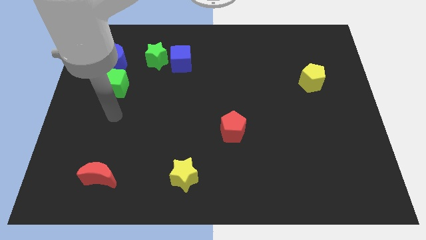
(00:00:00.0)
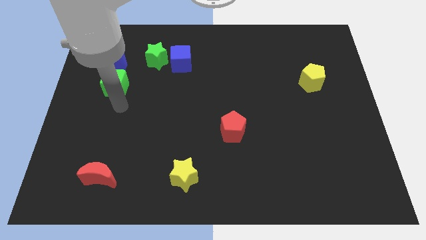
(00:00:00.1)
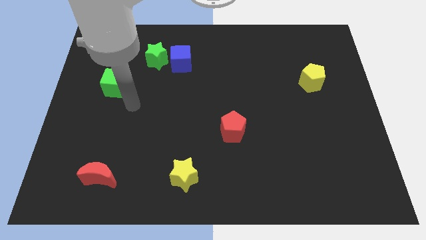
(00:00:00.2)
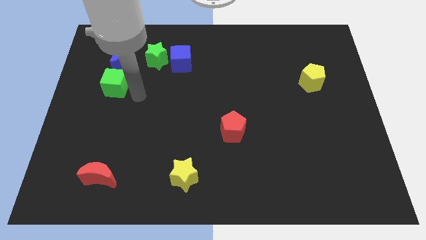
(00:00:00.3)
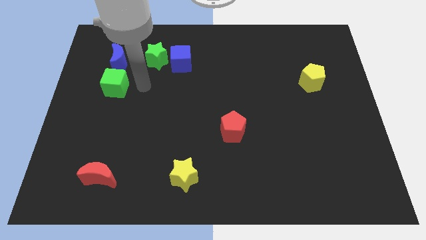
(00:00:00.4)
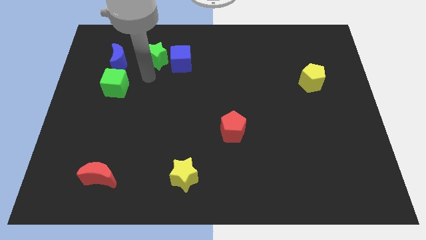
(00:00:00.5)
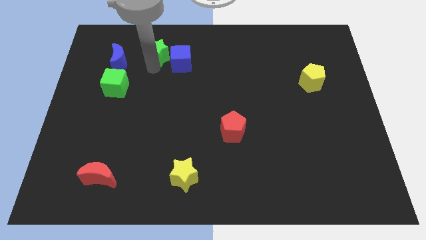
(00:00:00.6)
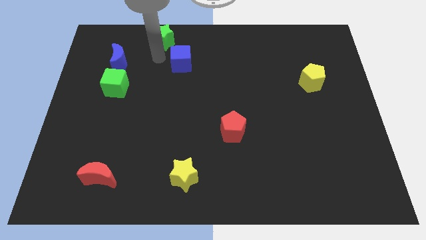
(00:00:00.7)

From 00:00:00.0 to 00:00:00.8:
move the blue cube away from the green star

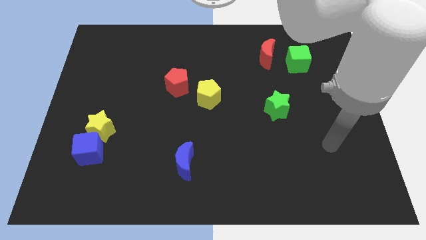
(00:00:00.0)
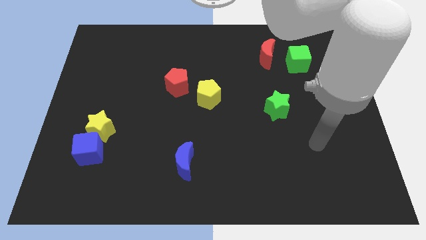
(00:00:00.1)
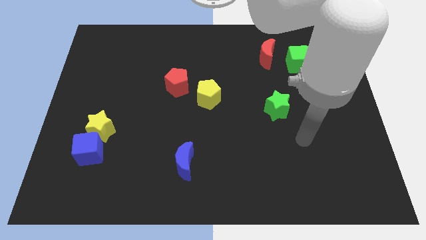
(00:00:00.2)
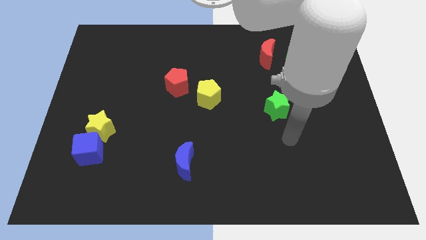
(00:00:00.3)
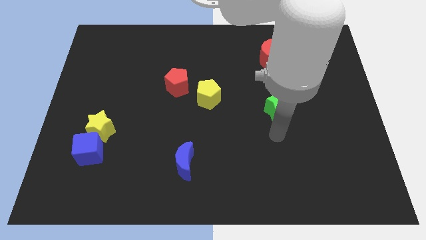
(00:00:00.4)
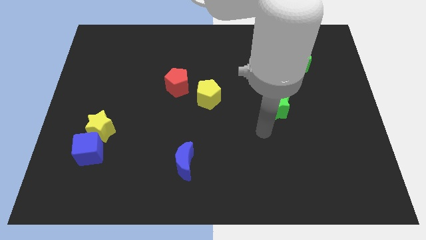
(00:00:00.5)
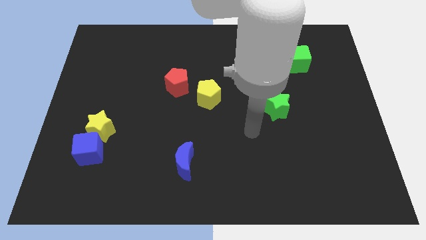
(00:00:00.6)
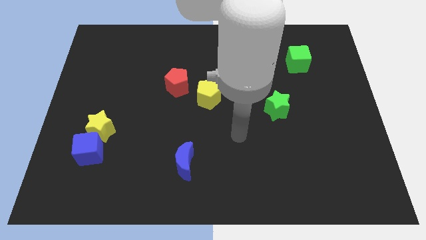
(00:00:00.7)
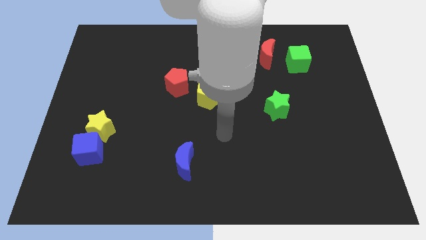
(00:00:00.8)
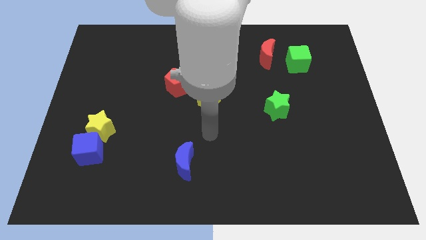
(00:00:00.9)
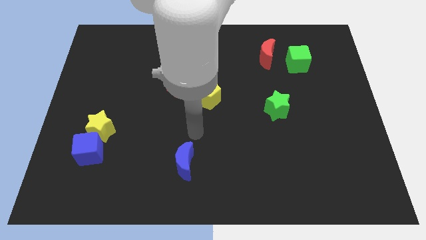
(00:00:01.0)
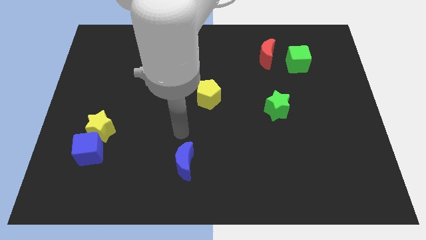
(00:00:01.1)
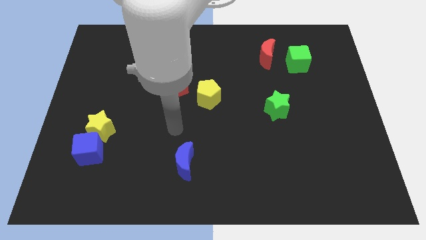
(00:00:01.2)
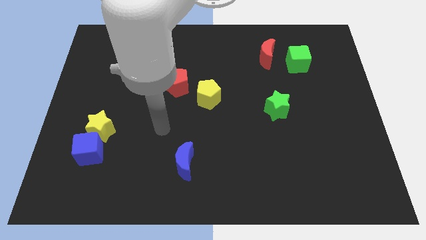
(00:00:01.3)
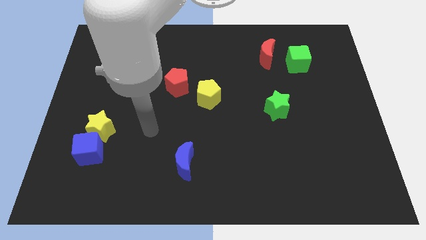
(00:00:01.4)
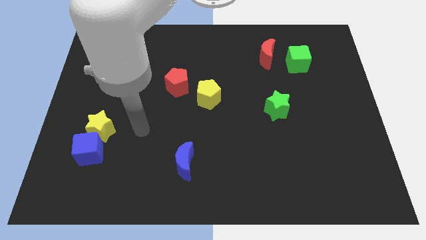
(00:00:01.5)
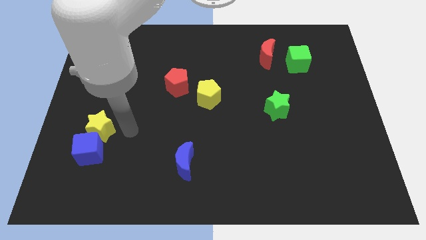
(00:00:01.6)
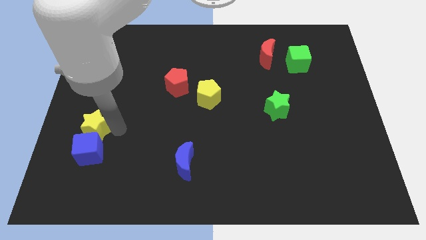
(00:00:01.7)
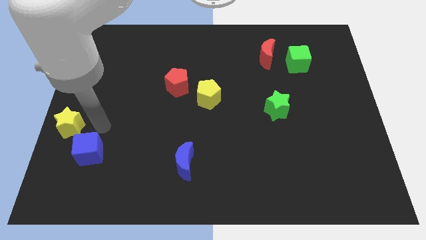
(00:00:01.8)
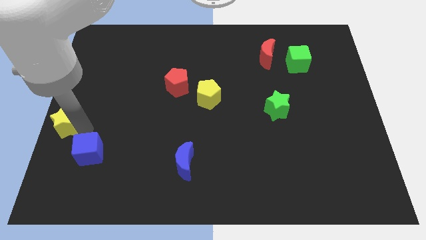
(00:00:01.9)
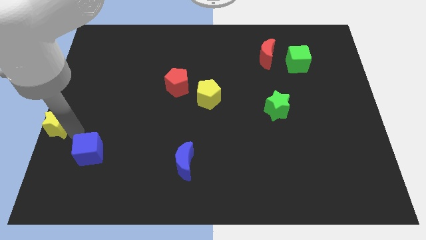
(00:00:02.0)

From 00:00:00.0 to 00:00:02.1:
separate the blue cube from the yellow star

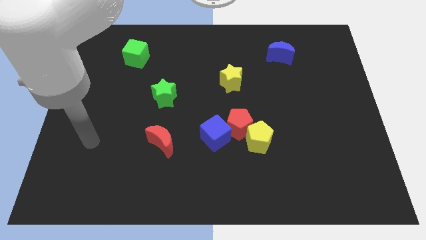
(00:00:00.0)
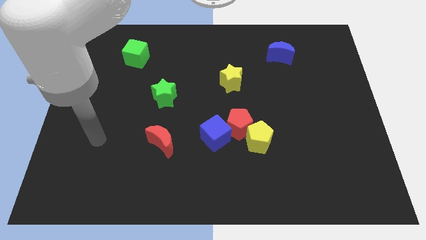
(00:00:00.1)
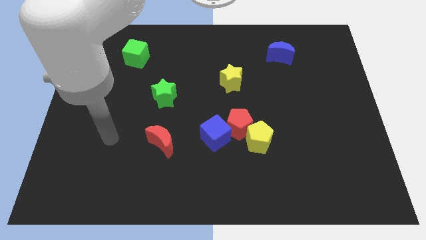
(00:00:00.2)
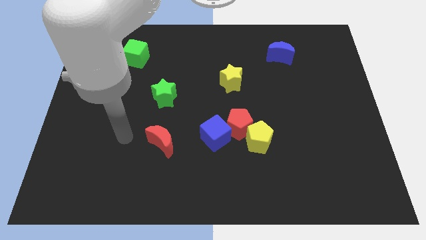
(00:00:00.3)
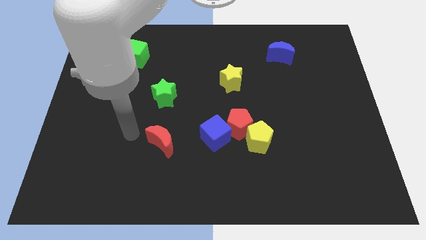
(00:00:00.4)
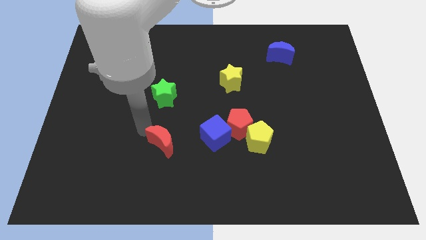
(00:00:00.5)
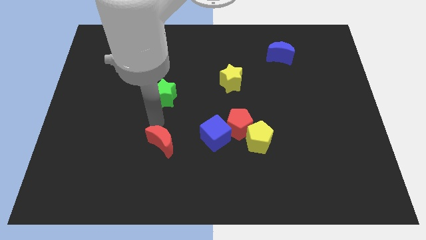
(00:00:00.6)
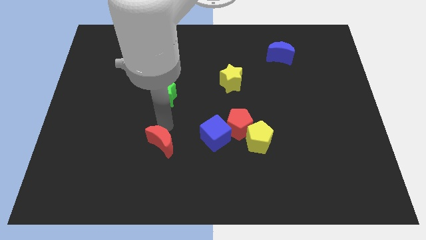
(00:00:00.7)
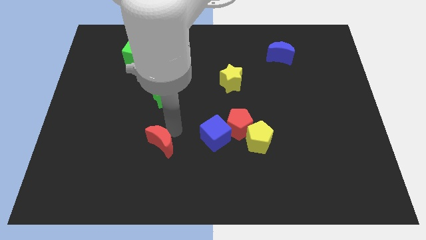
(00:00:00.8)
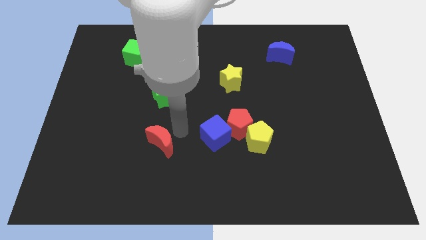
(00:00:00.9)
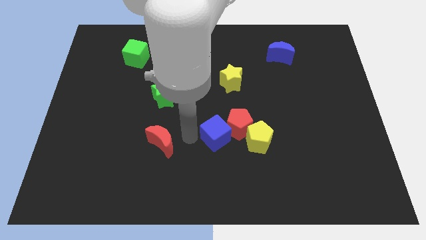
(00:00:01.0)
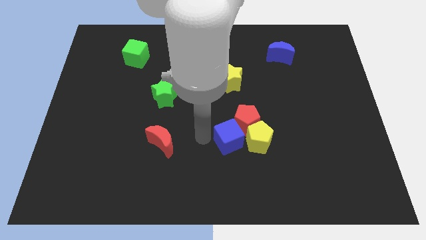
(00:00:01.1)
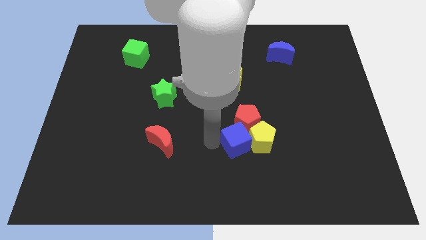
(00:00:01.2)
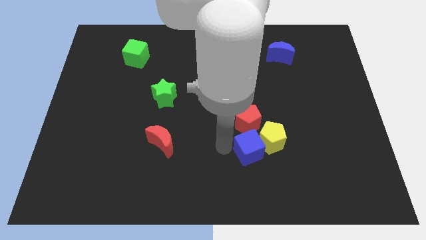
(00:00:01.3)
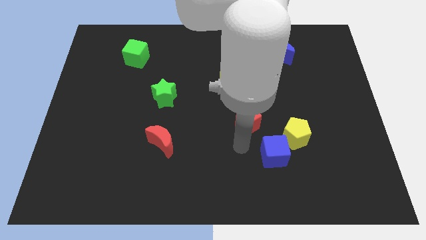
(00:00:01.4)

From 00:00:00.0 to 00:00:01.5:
pull the red pentagon apart from the yellow pentagon and blue cube

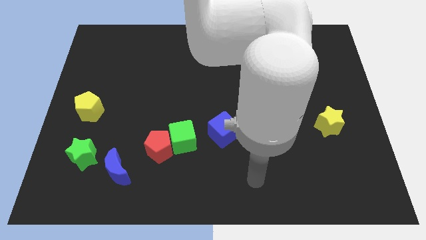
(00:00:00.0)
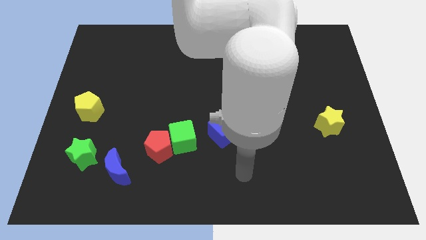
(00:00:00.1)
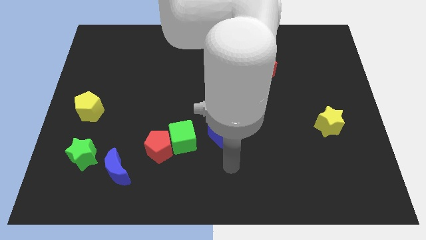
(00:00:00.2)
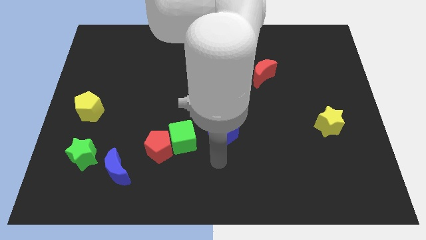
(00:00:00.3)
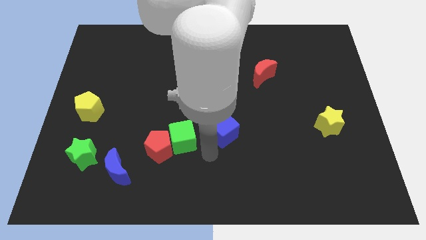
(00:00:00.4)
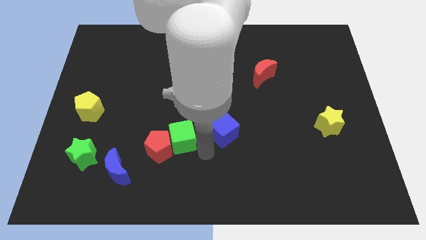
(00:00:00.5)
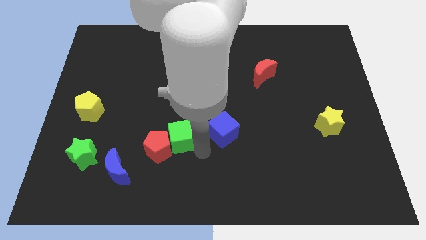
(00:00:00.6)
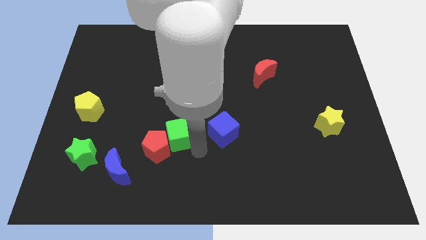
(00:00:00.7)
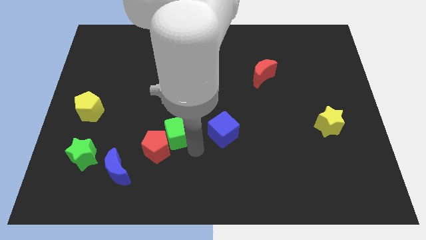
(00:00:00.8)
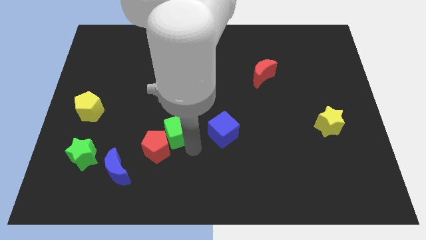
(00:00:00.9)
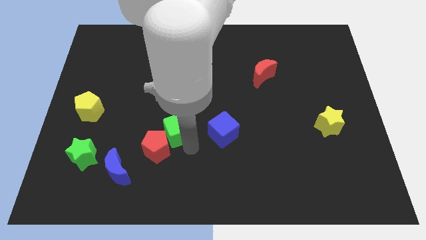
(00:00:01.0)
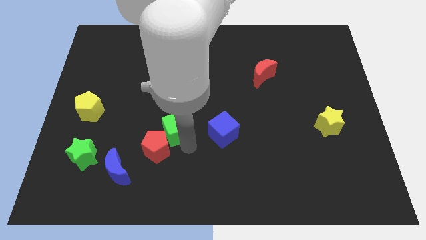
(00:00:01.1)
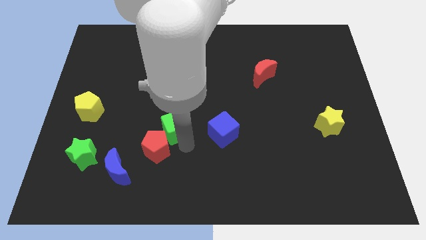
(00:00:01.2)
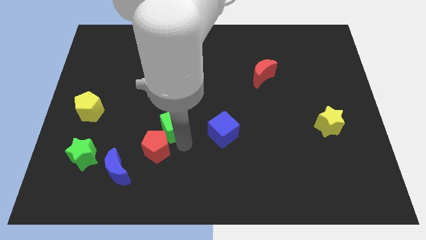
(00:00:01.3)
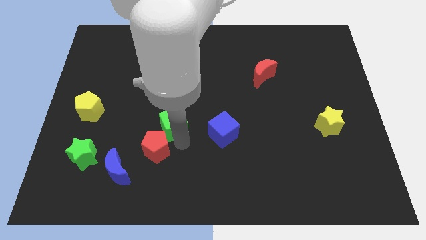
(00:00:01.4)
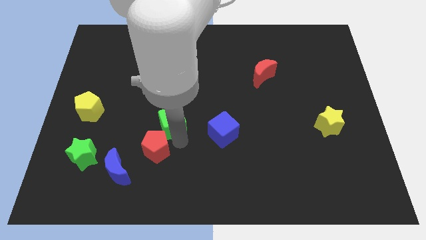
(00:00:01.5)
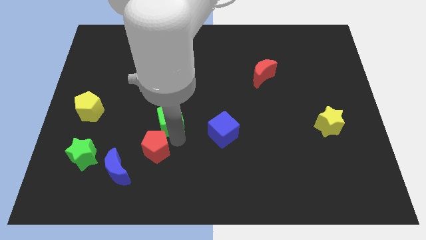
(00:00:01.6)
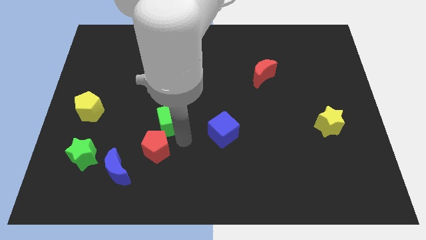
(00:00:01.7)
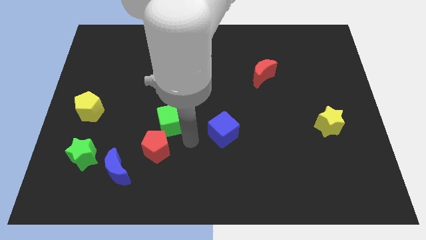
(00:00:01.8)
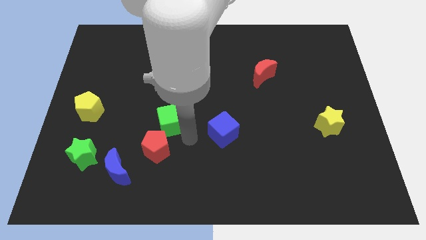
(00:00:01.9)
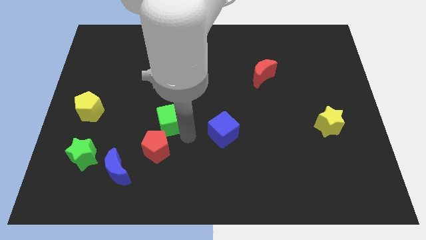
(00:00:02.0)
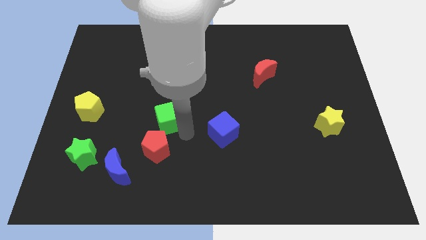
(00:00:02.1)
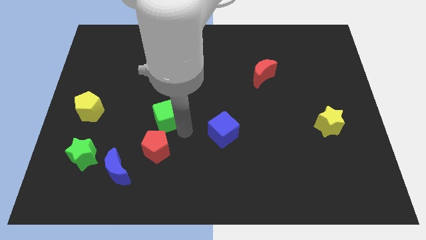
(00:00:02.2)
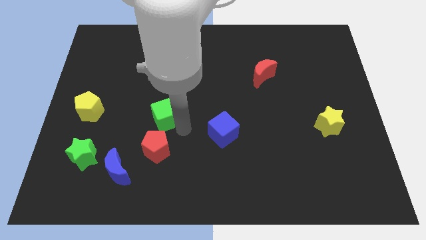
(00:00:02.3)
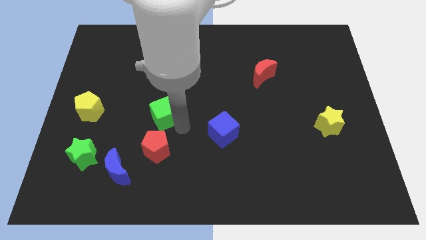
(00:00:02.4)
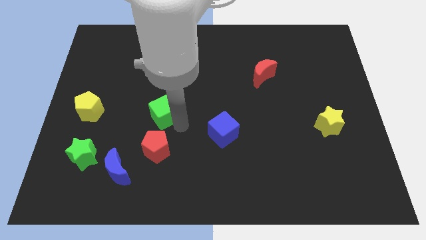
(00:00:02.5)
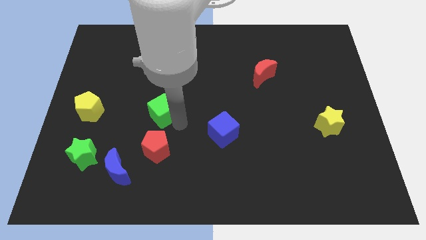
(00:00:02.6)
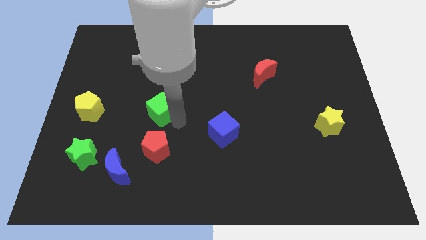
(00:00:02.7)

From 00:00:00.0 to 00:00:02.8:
move the green cube away from the red pentagon and blue cube

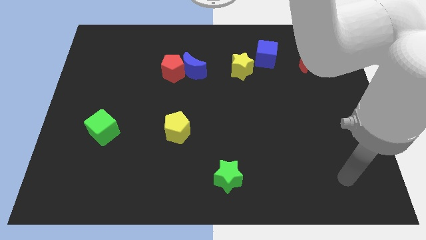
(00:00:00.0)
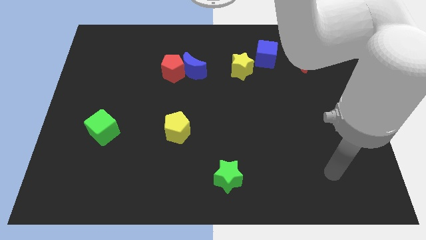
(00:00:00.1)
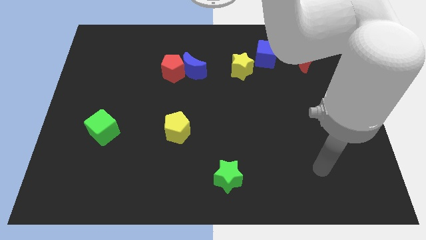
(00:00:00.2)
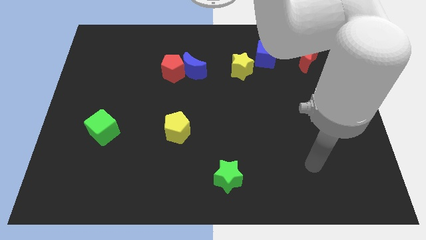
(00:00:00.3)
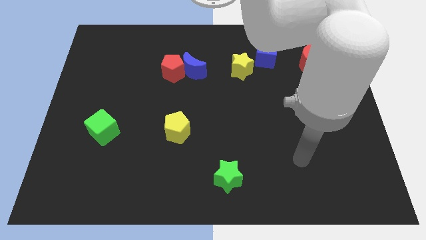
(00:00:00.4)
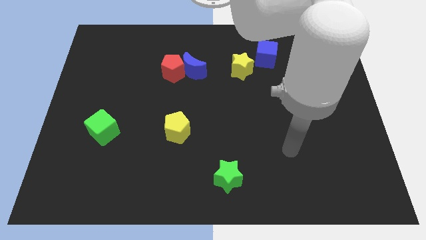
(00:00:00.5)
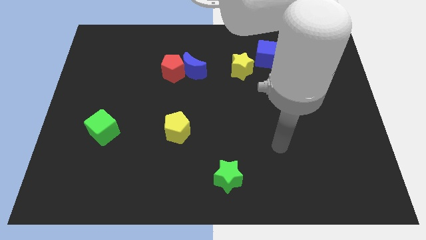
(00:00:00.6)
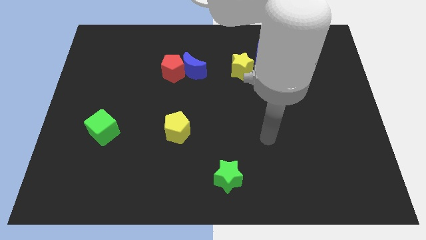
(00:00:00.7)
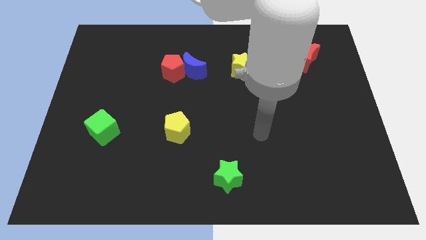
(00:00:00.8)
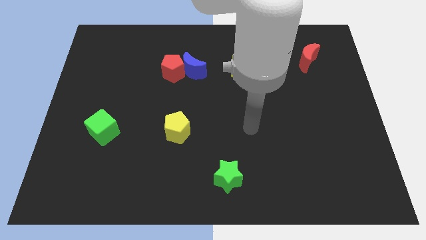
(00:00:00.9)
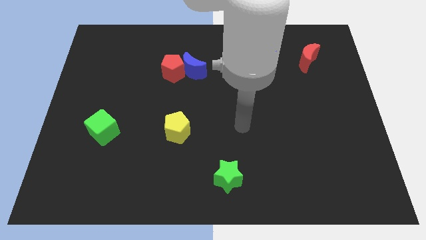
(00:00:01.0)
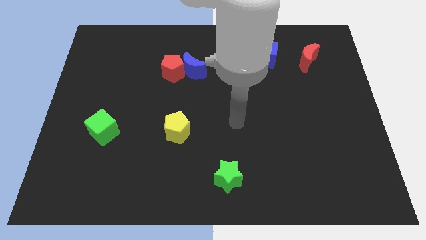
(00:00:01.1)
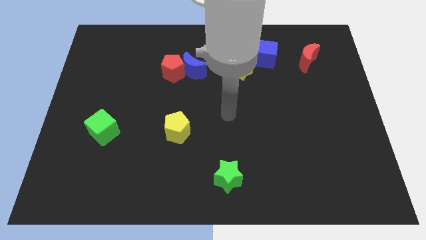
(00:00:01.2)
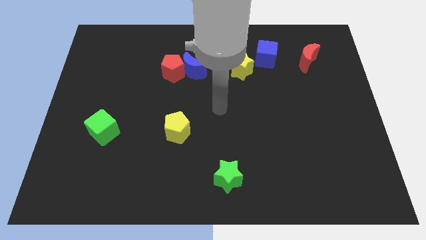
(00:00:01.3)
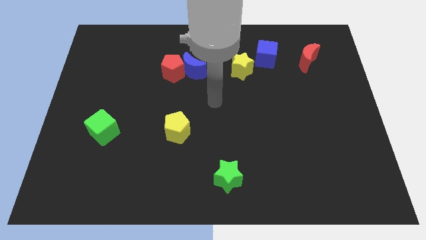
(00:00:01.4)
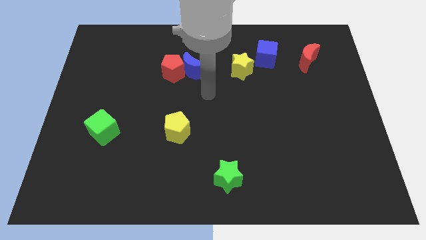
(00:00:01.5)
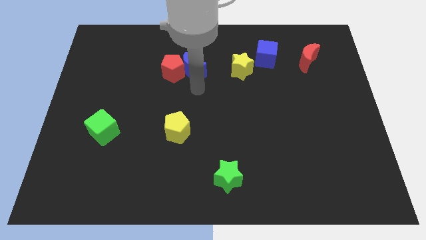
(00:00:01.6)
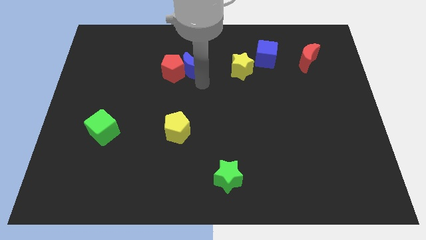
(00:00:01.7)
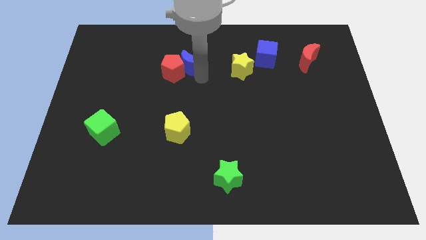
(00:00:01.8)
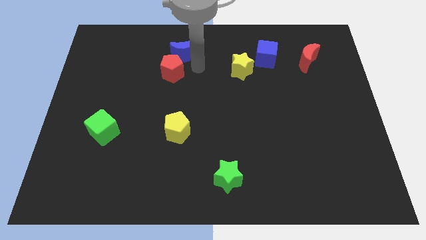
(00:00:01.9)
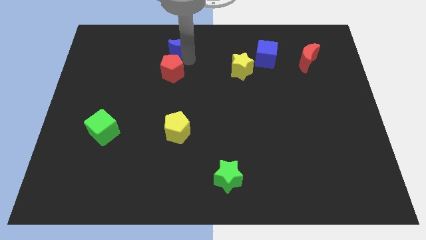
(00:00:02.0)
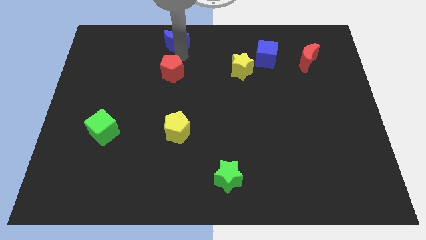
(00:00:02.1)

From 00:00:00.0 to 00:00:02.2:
pull the red pentagon apart from the blue moon

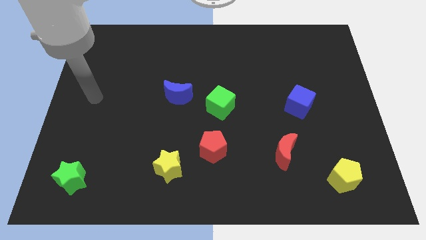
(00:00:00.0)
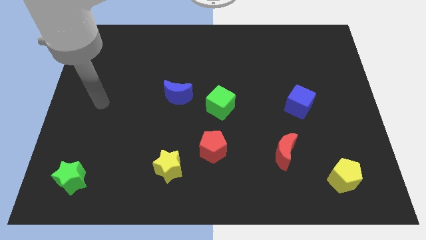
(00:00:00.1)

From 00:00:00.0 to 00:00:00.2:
separate the red pentagon from the yellow star
